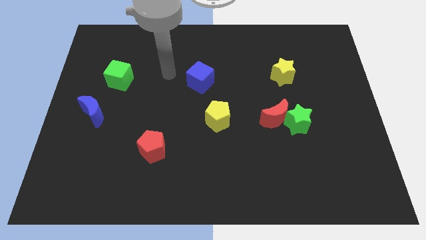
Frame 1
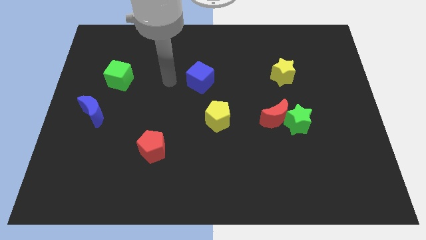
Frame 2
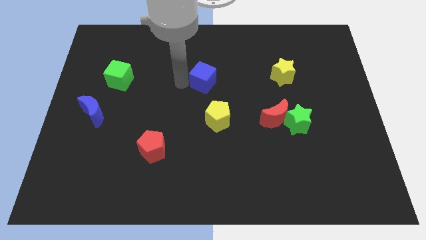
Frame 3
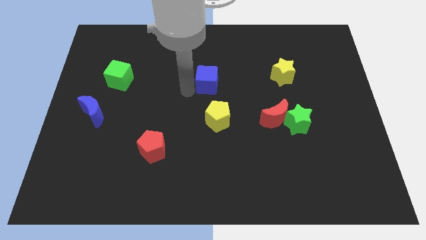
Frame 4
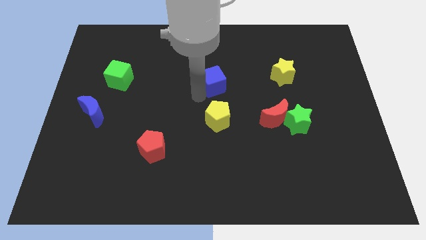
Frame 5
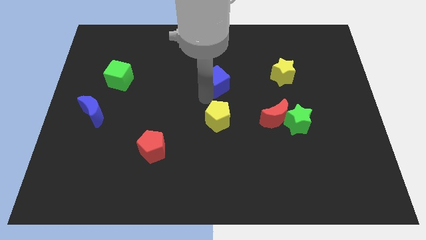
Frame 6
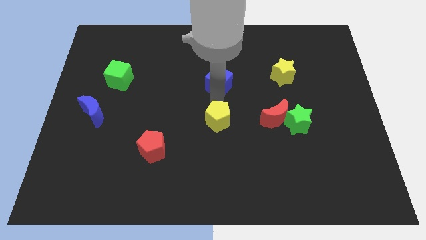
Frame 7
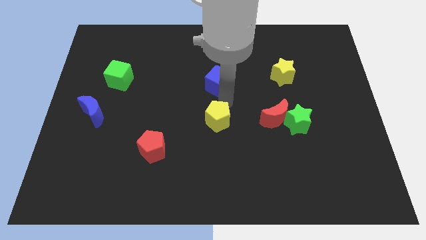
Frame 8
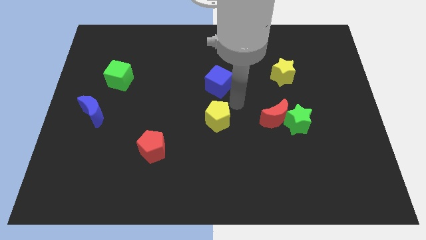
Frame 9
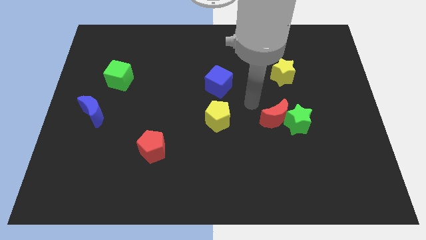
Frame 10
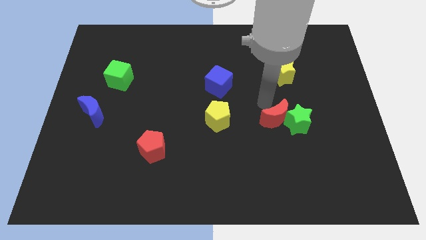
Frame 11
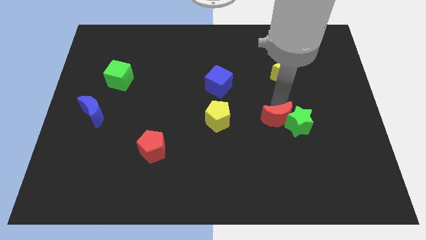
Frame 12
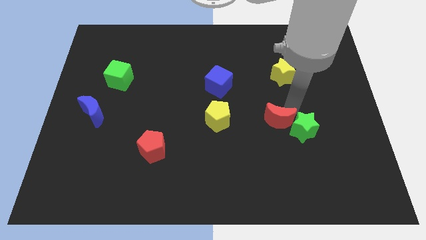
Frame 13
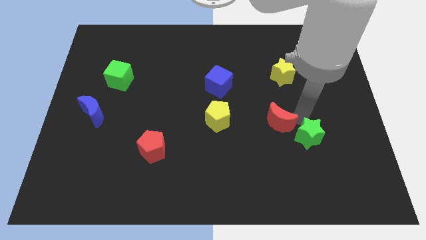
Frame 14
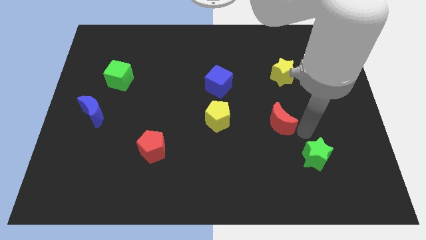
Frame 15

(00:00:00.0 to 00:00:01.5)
separate the red moon from the green star

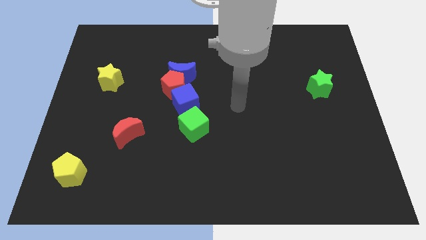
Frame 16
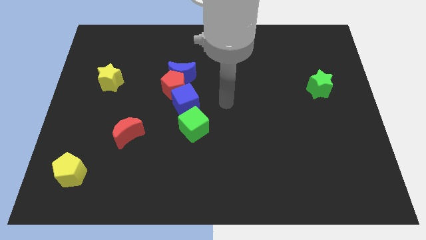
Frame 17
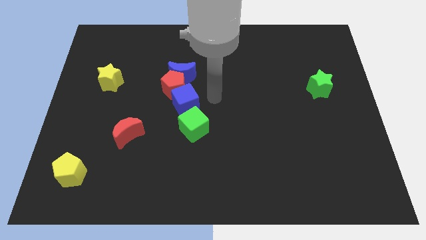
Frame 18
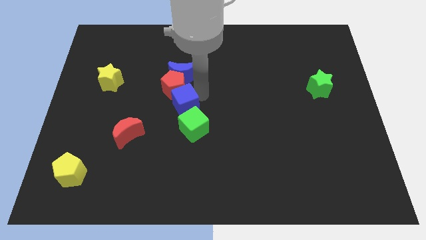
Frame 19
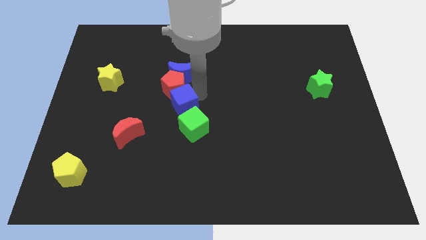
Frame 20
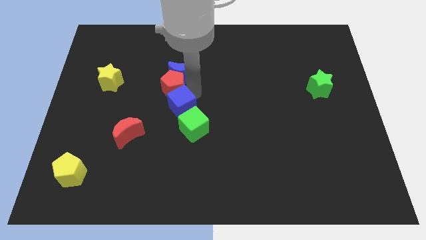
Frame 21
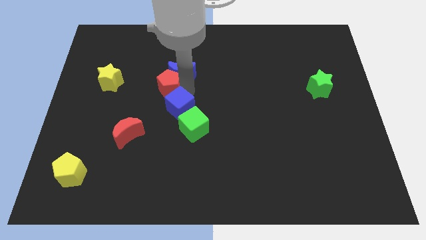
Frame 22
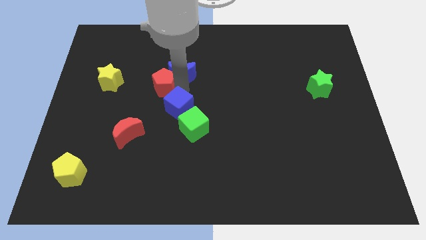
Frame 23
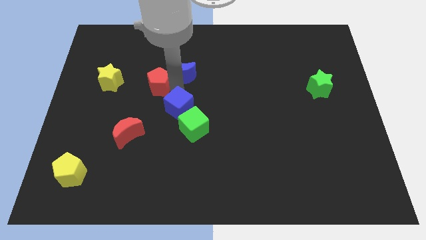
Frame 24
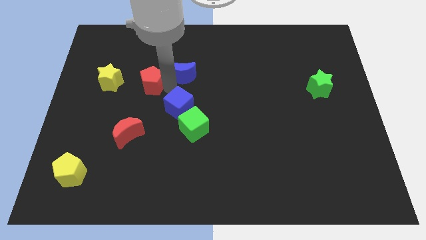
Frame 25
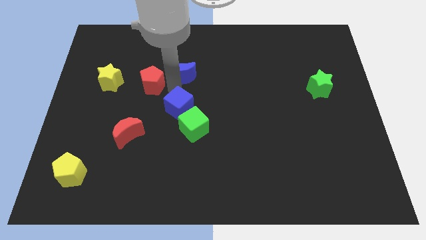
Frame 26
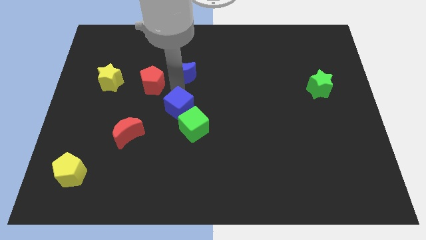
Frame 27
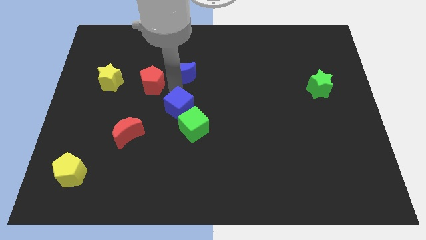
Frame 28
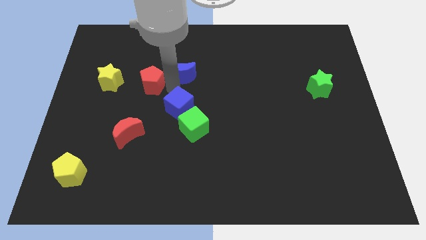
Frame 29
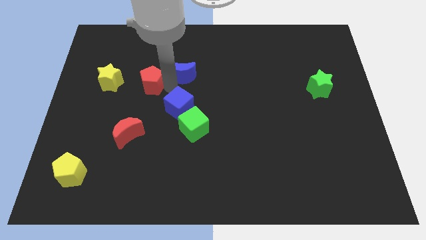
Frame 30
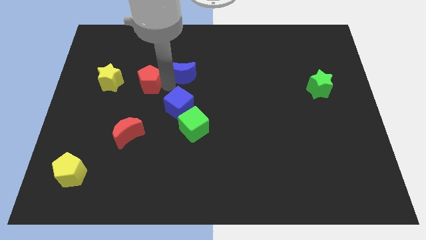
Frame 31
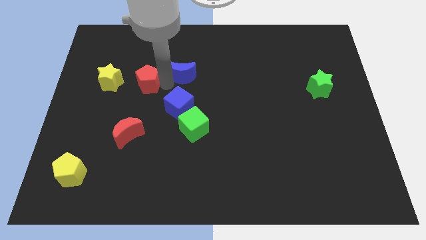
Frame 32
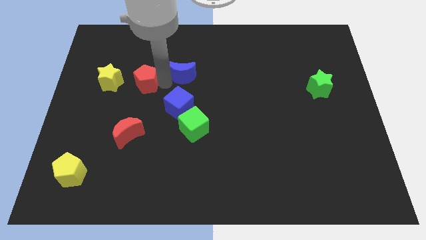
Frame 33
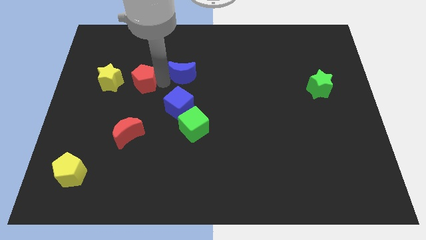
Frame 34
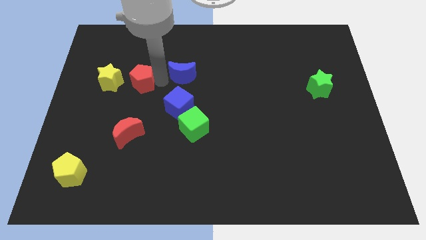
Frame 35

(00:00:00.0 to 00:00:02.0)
pull the red pentagon apart from the blue moon and blue cube

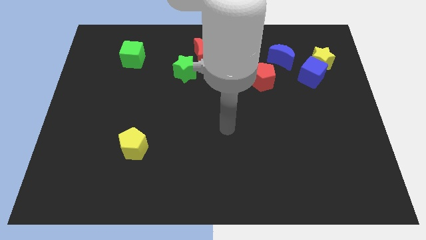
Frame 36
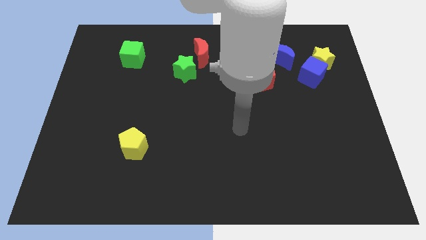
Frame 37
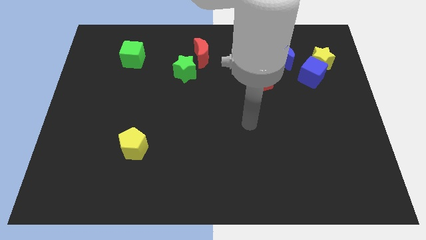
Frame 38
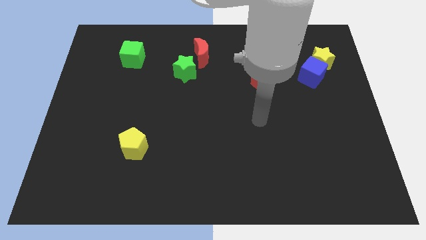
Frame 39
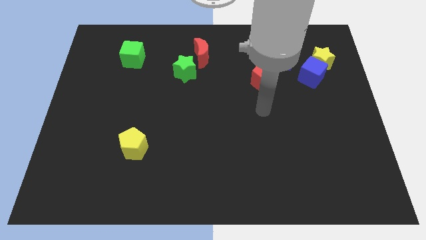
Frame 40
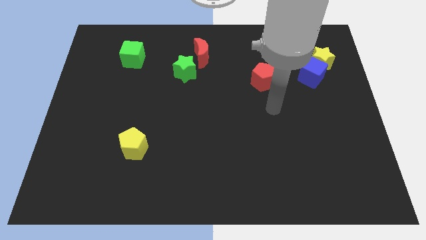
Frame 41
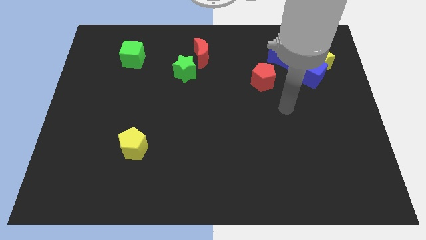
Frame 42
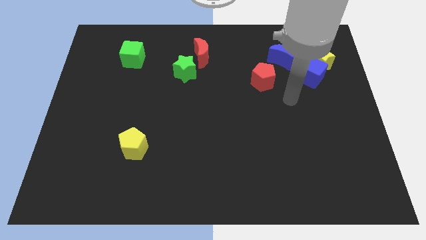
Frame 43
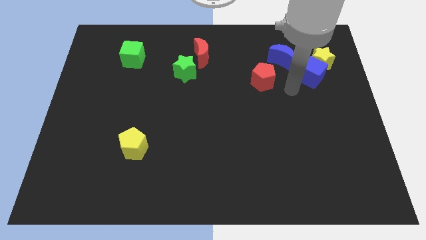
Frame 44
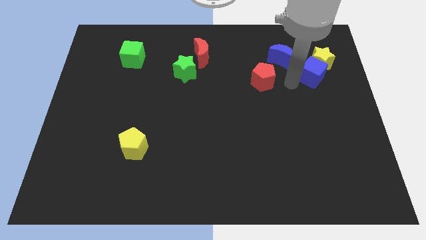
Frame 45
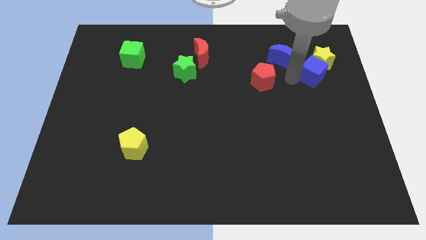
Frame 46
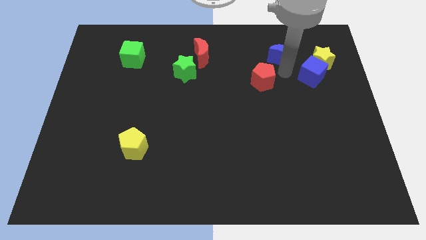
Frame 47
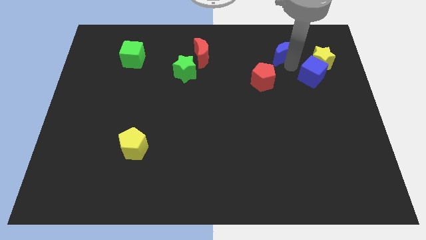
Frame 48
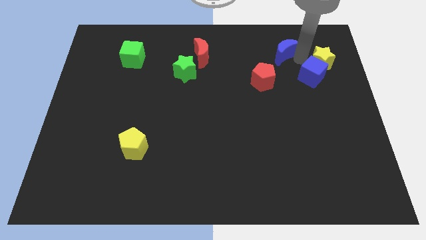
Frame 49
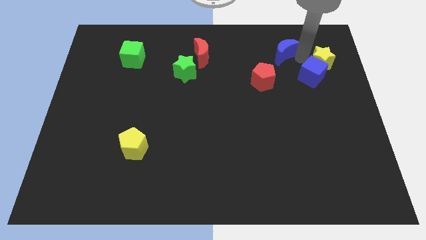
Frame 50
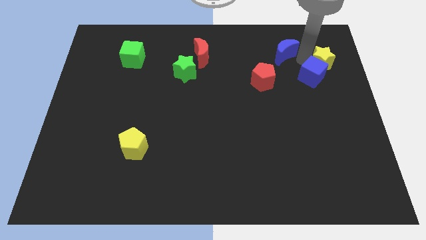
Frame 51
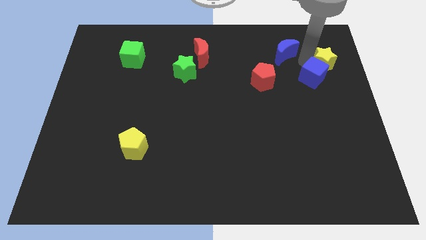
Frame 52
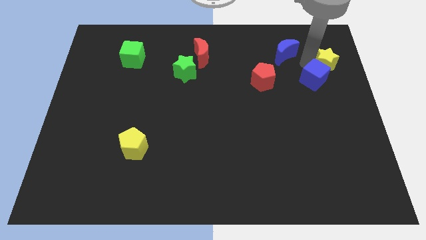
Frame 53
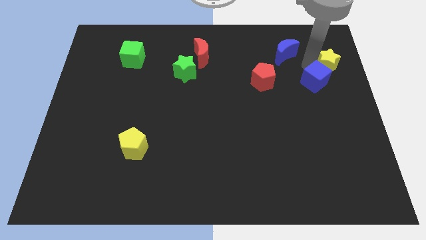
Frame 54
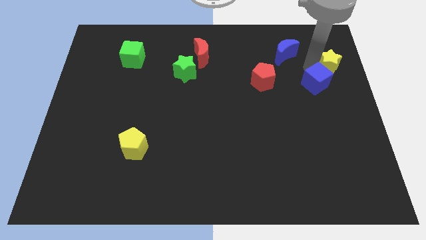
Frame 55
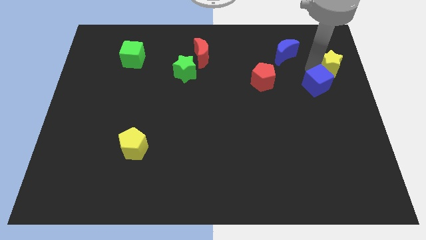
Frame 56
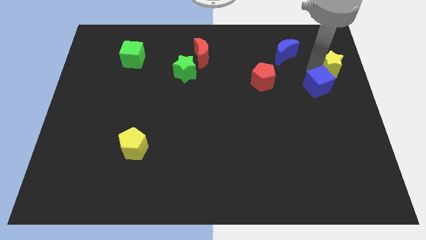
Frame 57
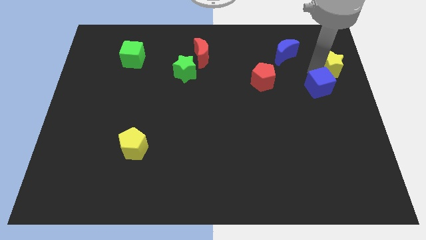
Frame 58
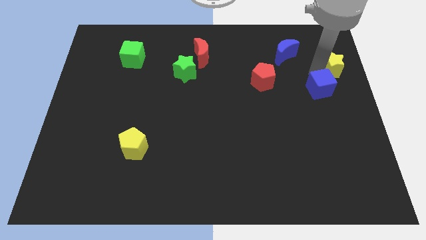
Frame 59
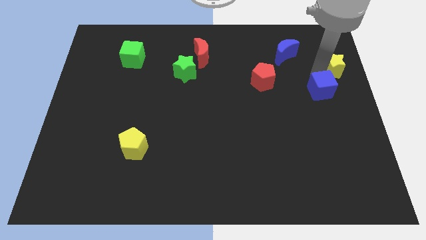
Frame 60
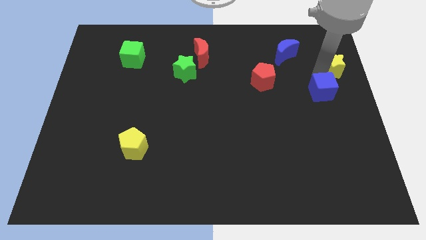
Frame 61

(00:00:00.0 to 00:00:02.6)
separate the blue cube from the yellow star and blue moon

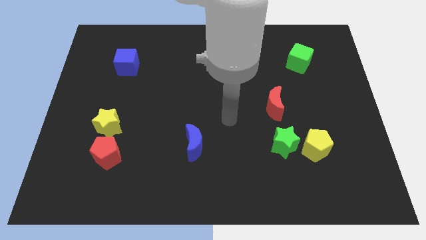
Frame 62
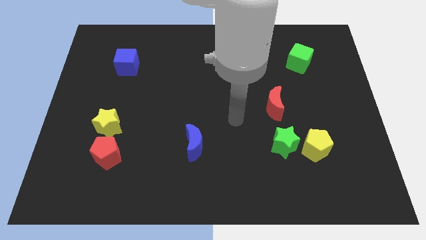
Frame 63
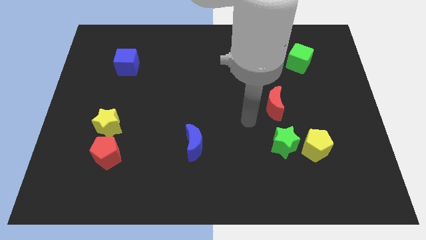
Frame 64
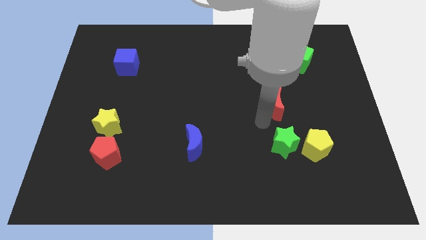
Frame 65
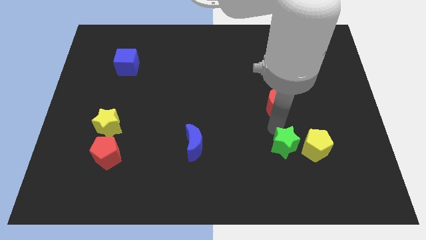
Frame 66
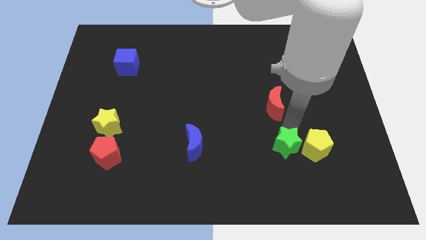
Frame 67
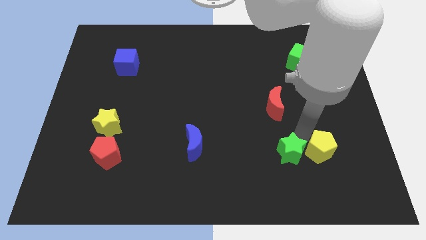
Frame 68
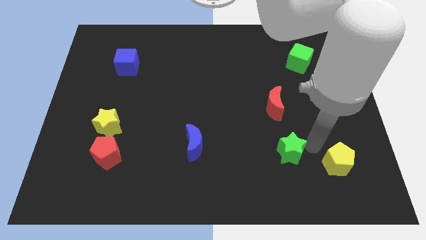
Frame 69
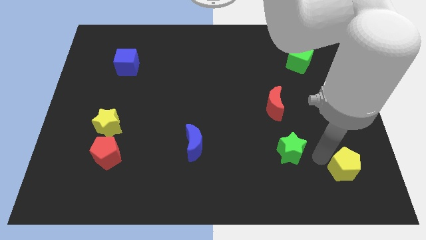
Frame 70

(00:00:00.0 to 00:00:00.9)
move the green star away from the yellow pentagon

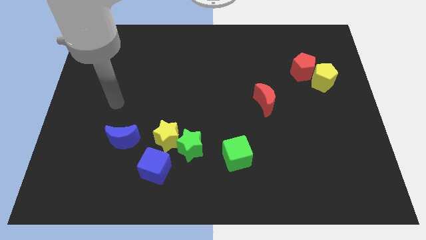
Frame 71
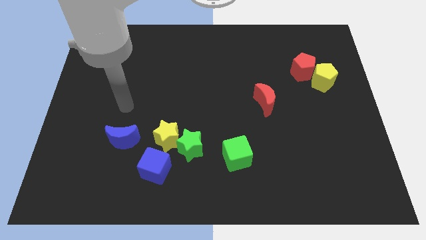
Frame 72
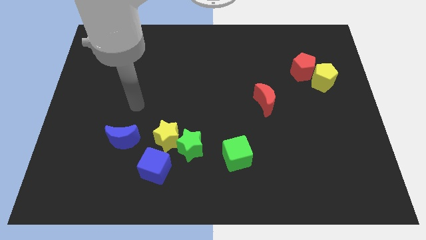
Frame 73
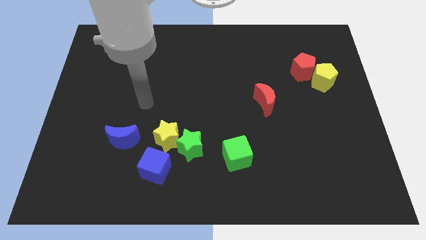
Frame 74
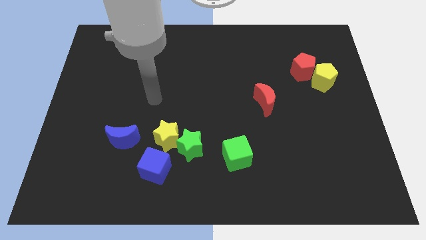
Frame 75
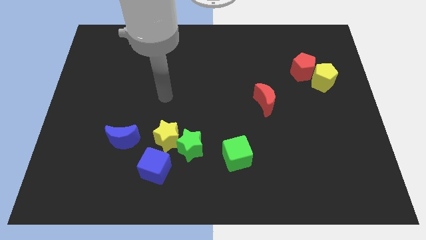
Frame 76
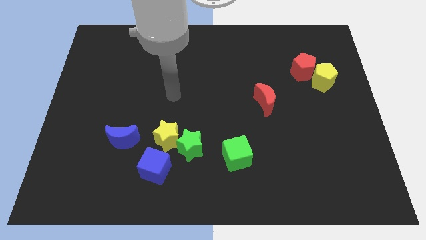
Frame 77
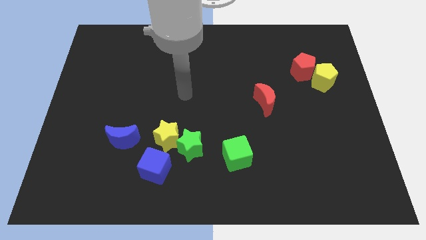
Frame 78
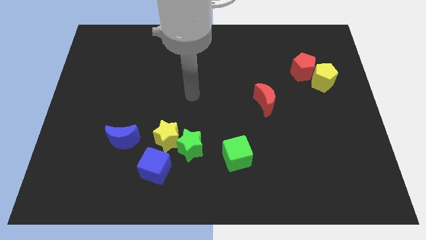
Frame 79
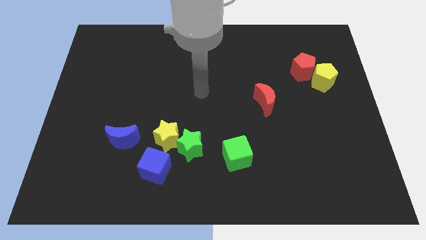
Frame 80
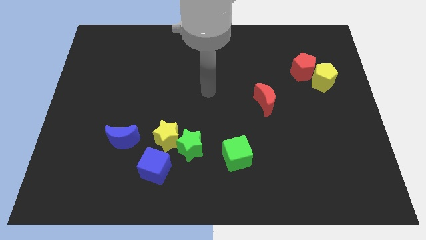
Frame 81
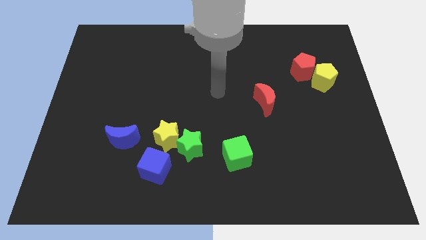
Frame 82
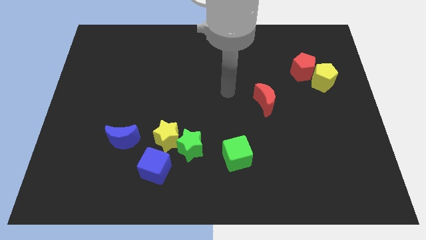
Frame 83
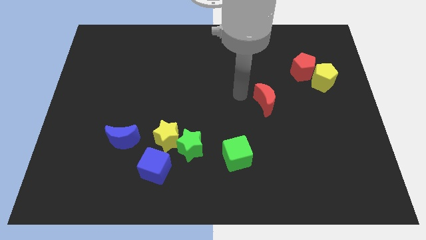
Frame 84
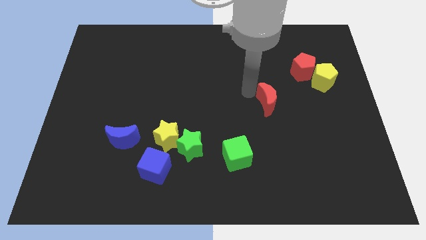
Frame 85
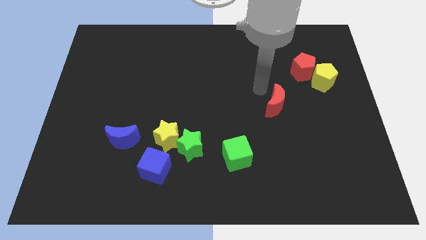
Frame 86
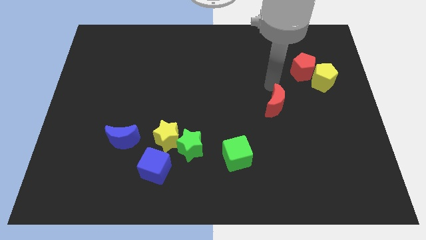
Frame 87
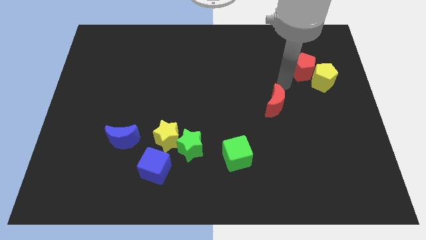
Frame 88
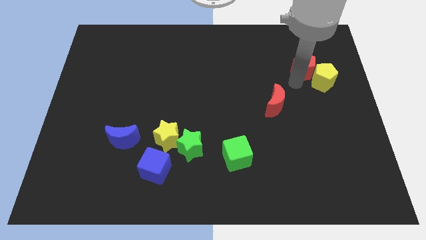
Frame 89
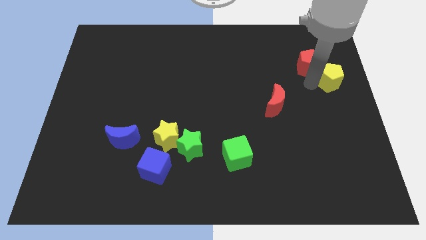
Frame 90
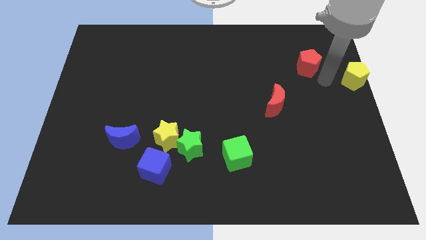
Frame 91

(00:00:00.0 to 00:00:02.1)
move the red pentagon away from the yellow pentagon

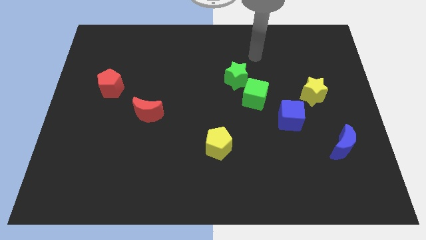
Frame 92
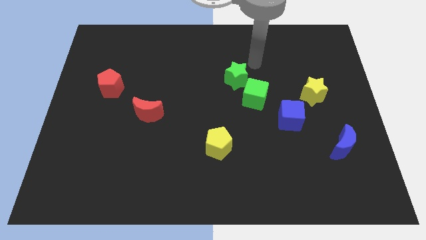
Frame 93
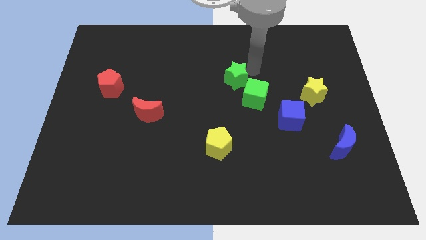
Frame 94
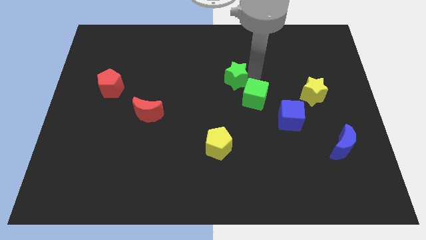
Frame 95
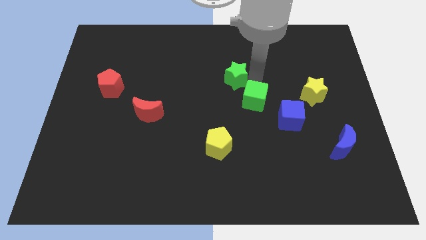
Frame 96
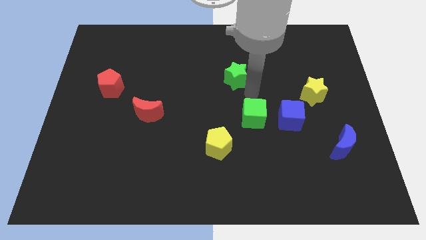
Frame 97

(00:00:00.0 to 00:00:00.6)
pull the green star apart from the green cube
